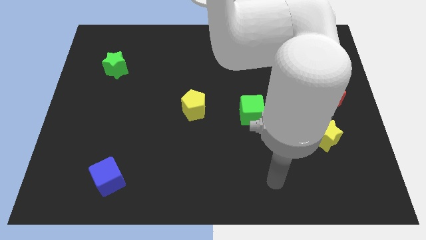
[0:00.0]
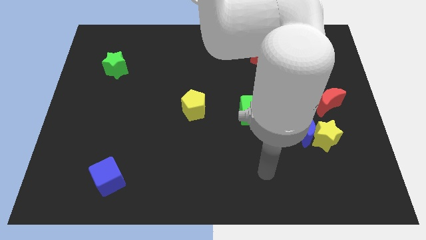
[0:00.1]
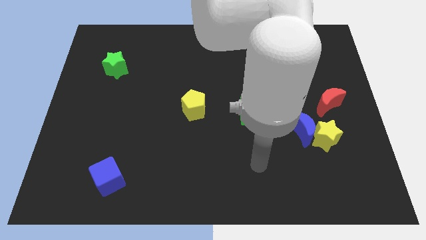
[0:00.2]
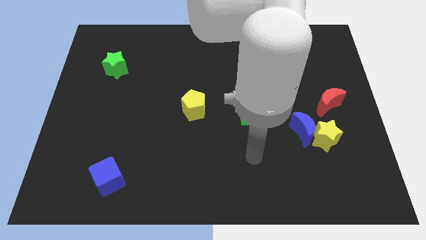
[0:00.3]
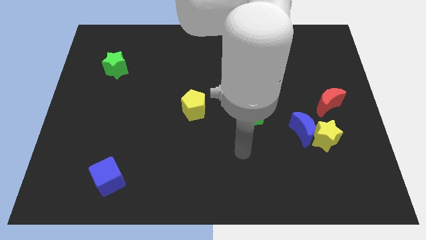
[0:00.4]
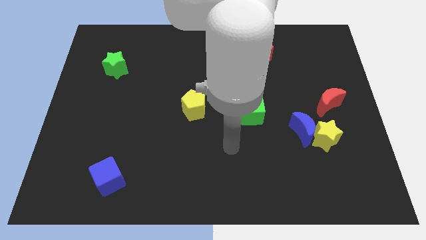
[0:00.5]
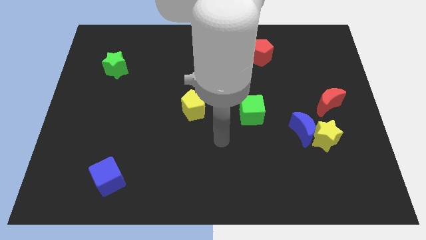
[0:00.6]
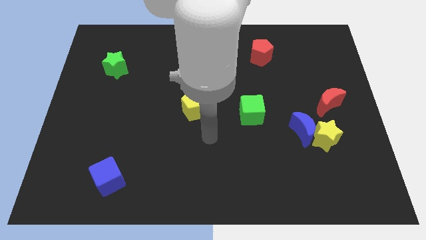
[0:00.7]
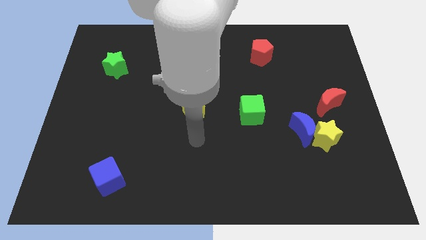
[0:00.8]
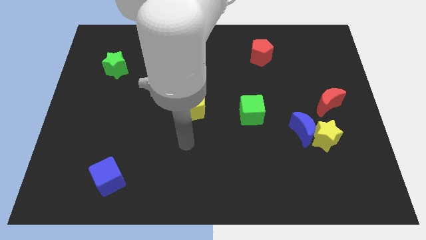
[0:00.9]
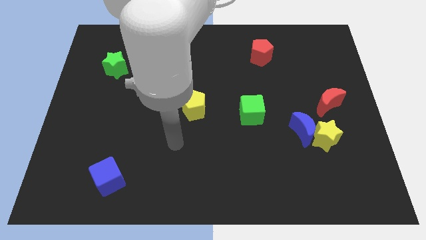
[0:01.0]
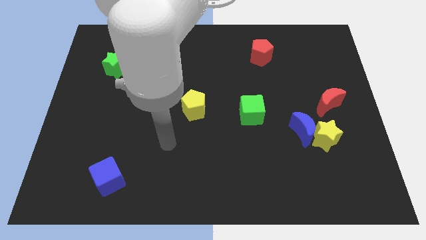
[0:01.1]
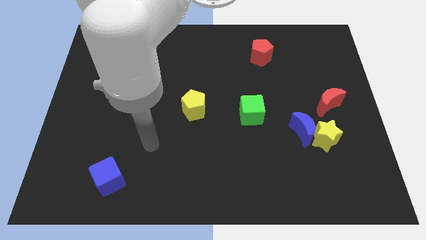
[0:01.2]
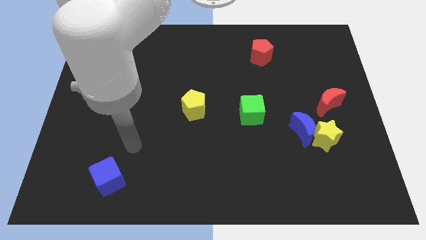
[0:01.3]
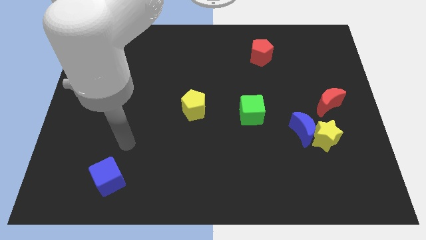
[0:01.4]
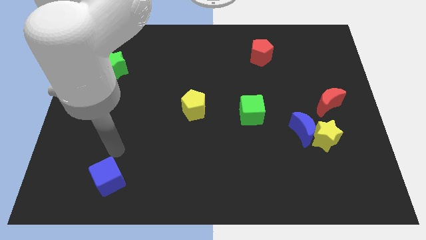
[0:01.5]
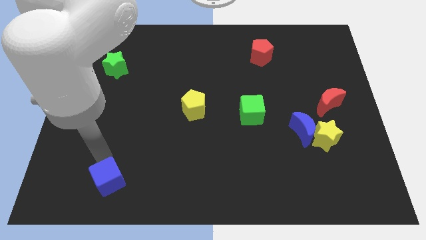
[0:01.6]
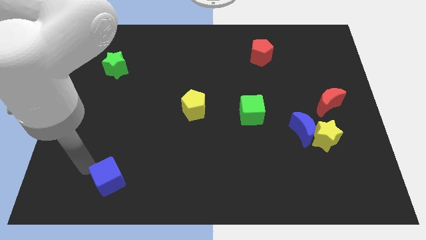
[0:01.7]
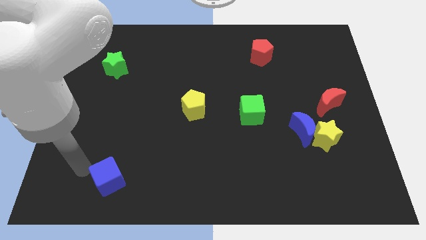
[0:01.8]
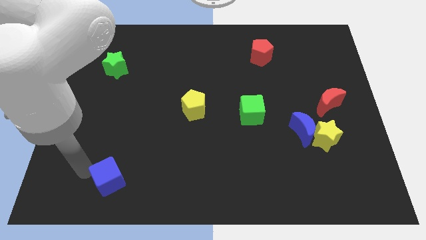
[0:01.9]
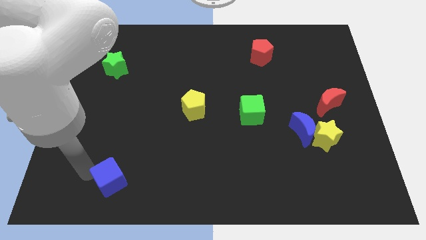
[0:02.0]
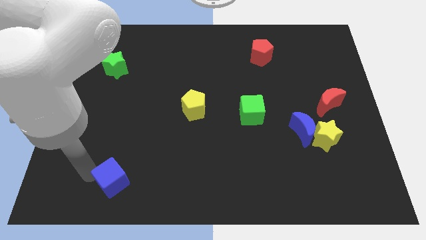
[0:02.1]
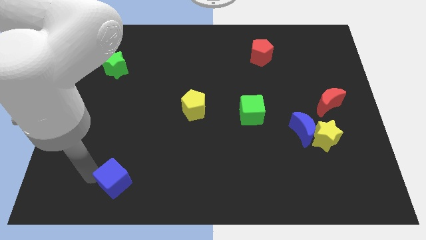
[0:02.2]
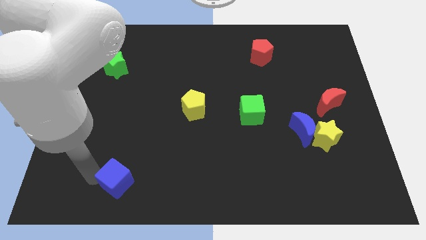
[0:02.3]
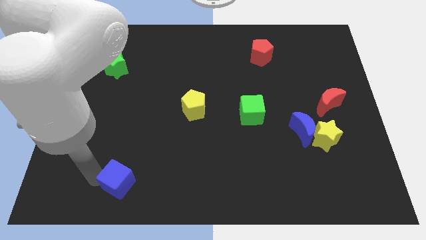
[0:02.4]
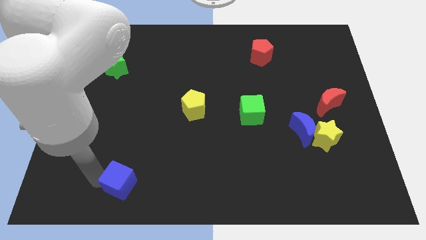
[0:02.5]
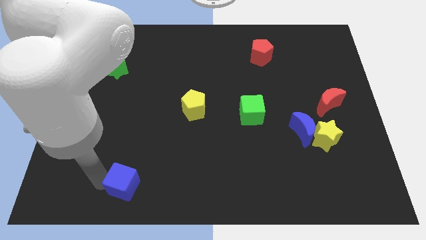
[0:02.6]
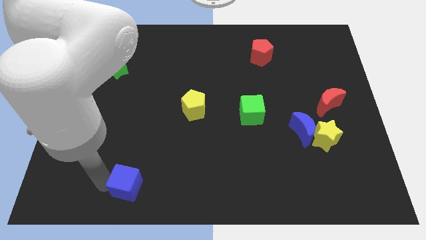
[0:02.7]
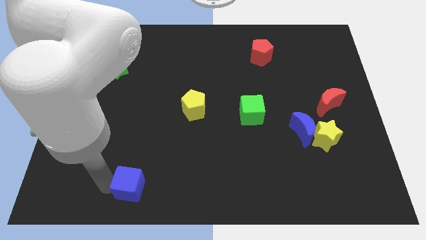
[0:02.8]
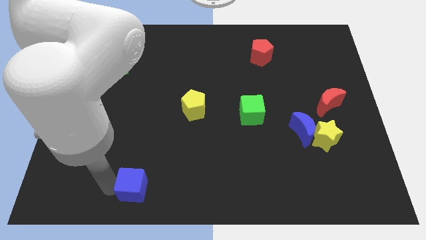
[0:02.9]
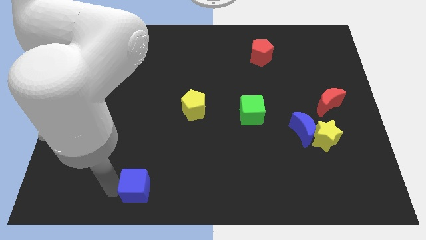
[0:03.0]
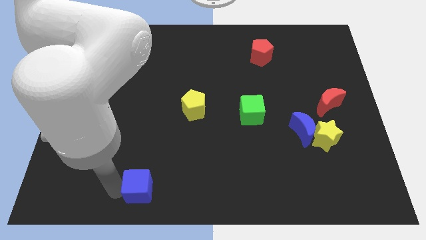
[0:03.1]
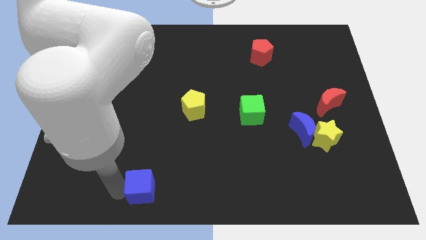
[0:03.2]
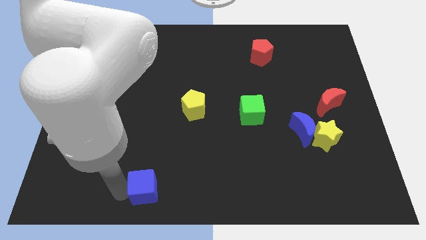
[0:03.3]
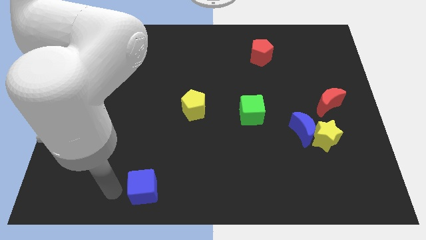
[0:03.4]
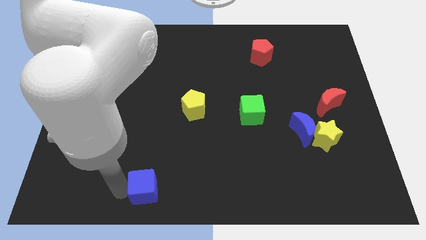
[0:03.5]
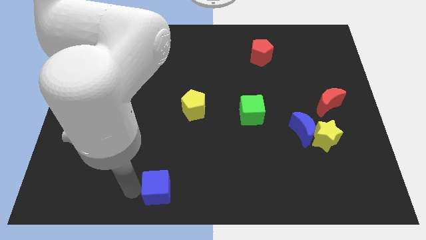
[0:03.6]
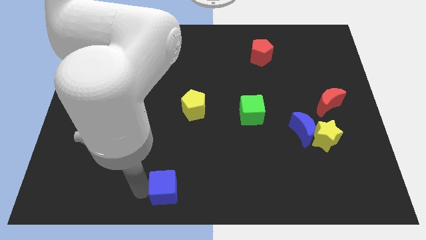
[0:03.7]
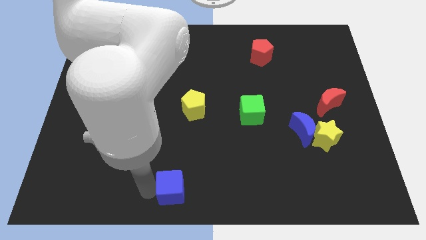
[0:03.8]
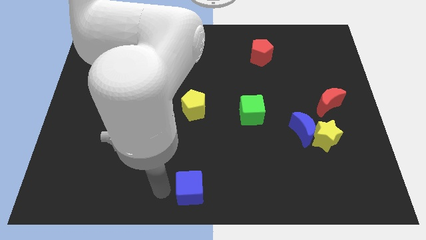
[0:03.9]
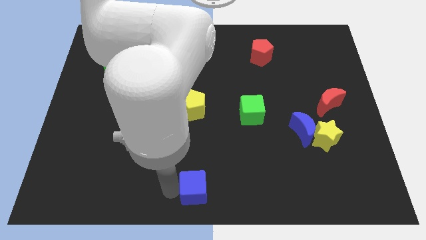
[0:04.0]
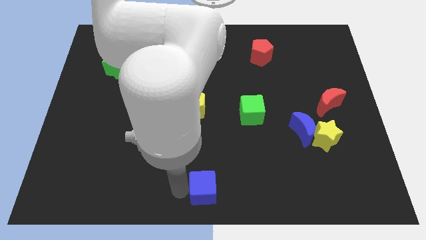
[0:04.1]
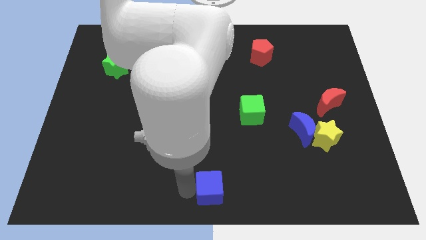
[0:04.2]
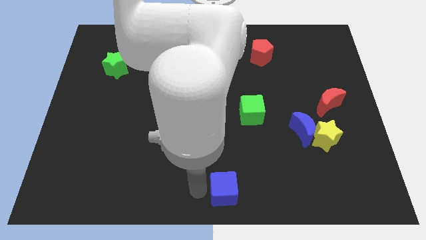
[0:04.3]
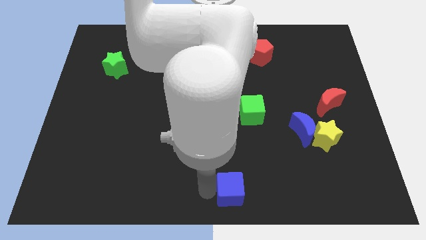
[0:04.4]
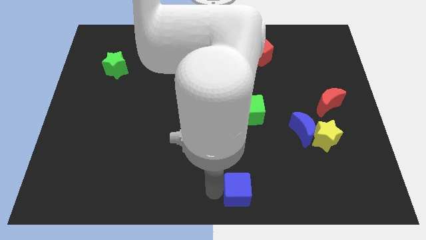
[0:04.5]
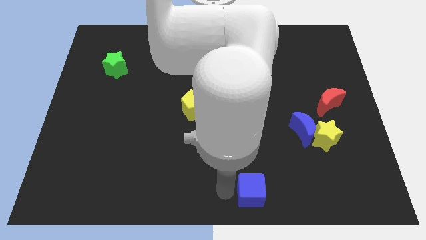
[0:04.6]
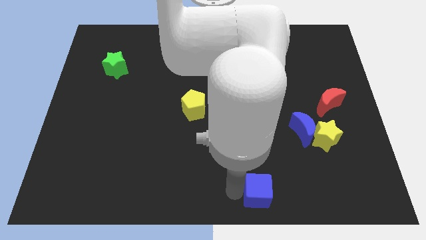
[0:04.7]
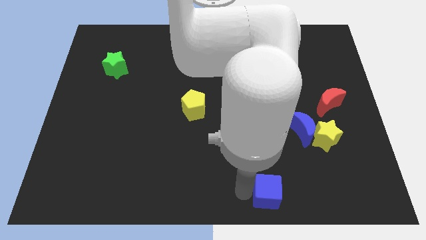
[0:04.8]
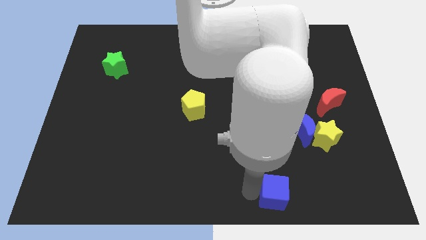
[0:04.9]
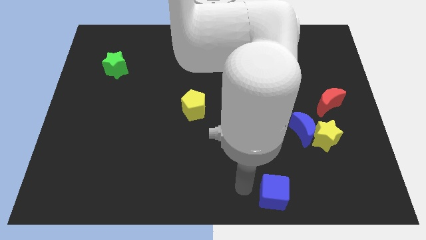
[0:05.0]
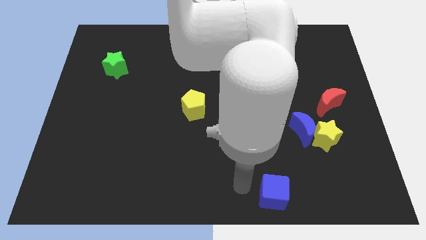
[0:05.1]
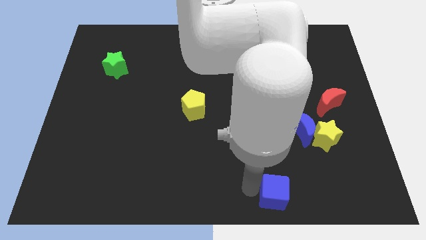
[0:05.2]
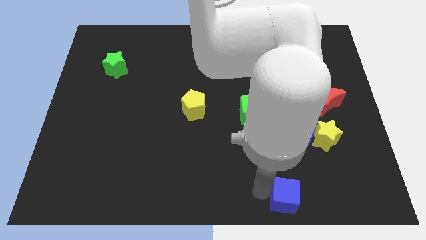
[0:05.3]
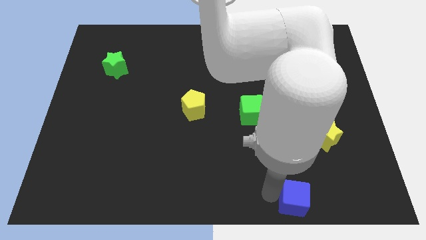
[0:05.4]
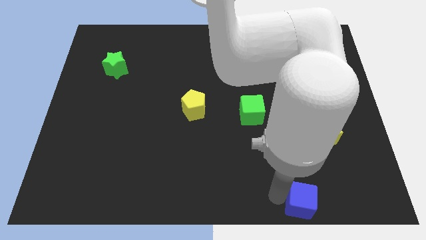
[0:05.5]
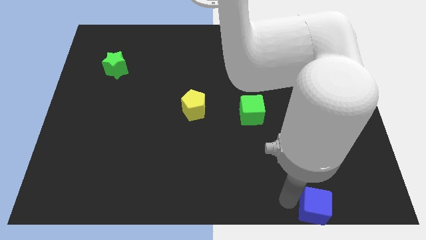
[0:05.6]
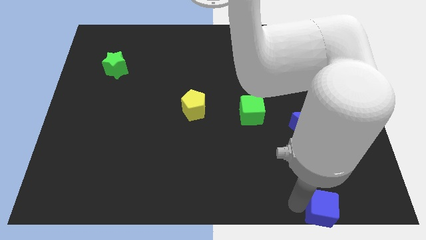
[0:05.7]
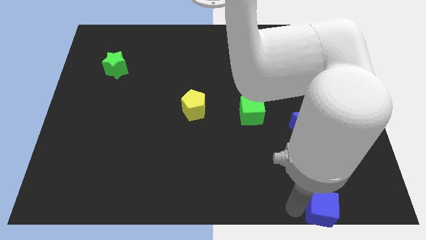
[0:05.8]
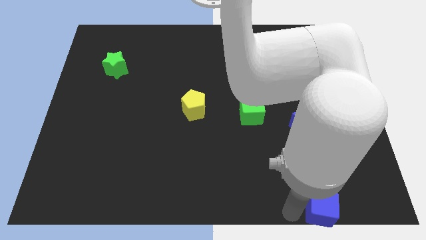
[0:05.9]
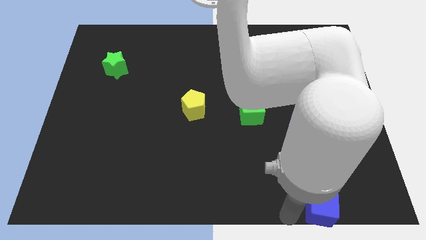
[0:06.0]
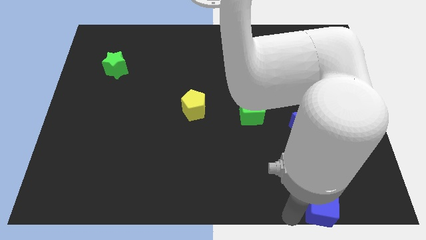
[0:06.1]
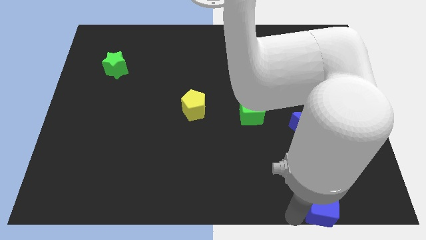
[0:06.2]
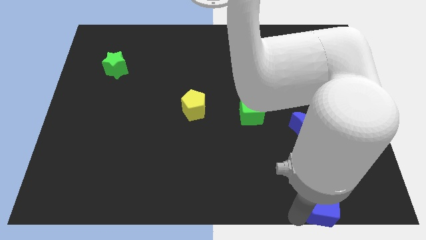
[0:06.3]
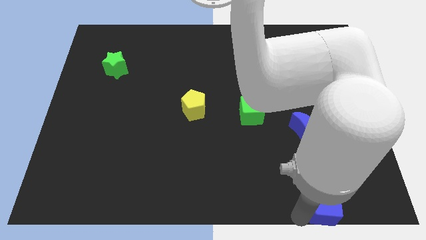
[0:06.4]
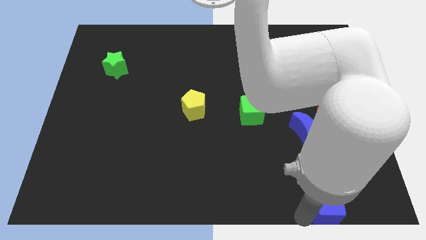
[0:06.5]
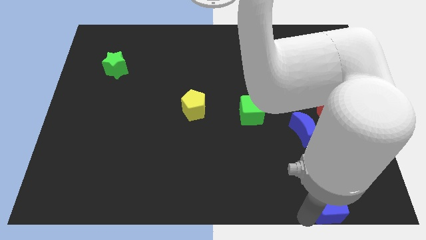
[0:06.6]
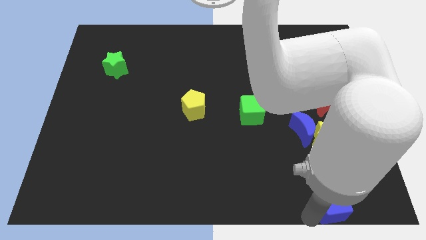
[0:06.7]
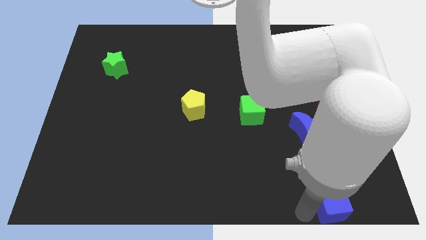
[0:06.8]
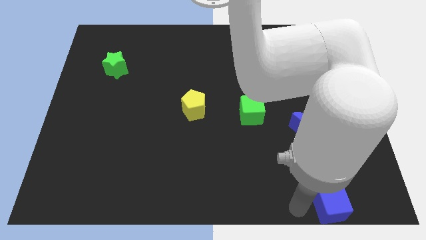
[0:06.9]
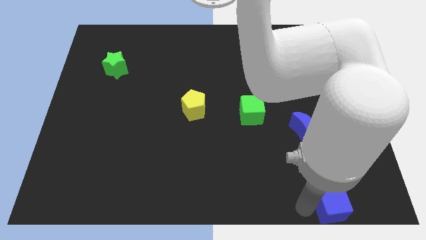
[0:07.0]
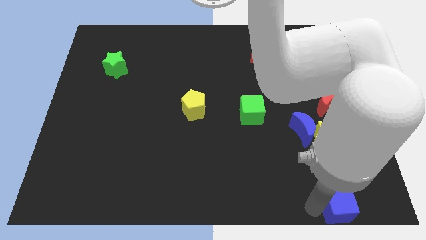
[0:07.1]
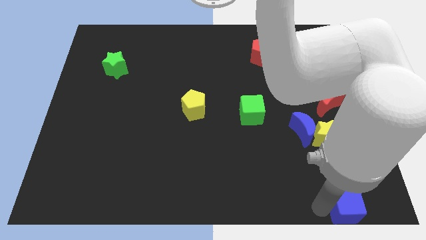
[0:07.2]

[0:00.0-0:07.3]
put the blue cube to the lower right corner
